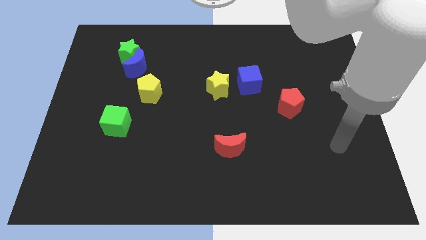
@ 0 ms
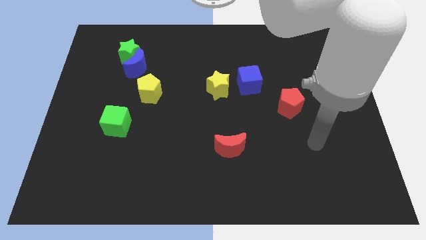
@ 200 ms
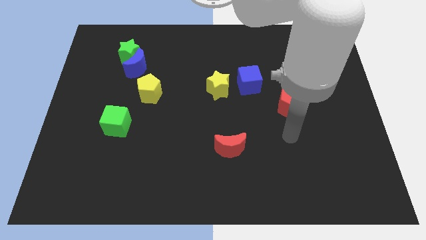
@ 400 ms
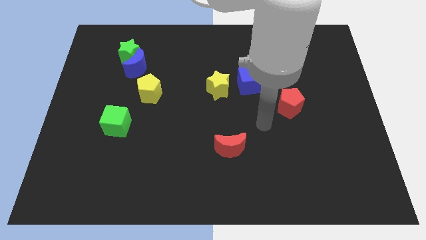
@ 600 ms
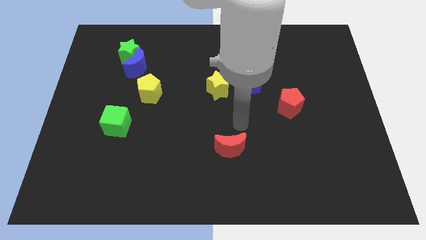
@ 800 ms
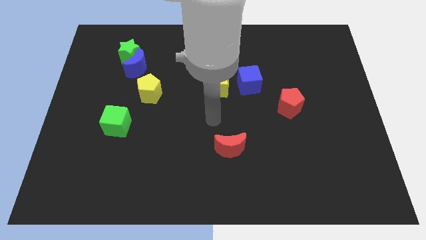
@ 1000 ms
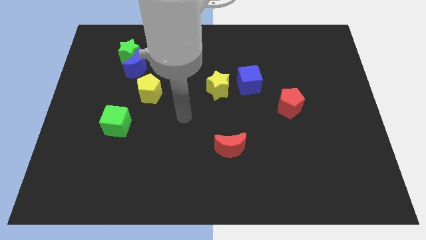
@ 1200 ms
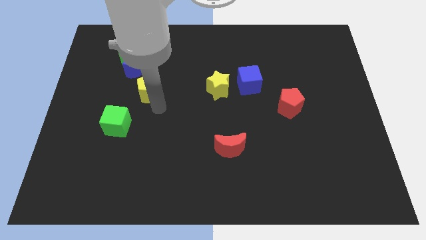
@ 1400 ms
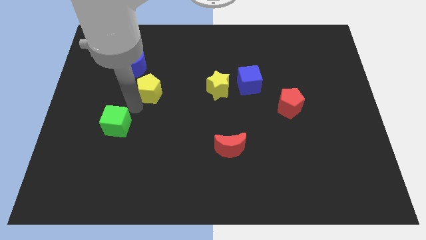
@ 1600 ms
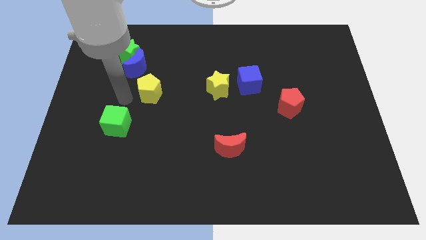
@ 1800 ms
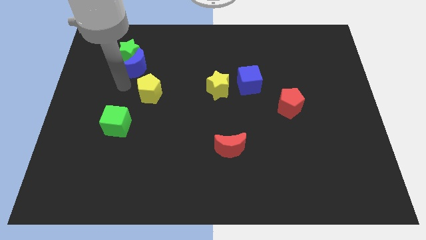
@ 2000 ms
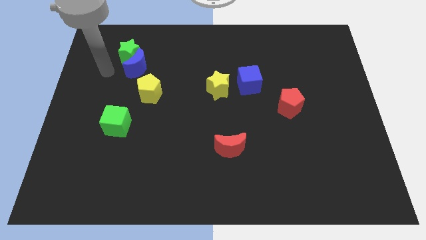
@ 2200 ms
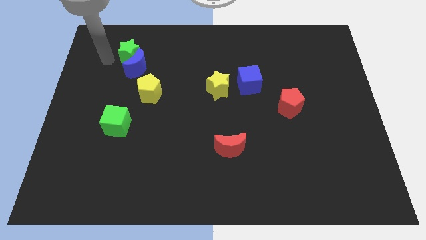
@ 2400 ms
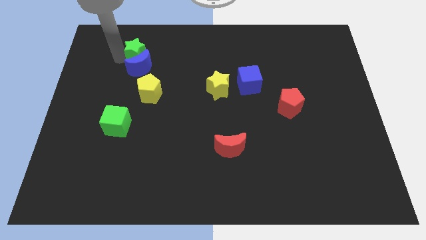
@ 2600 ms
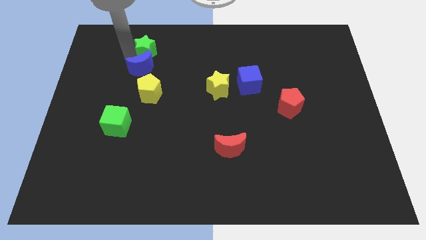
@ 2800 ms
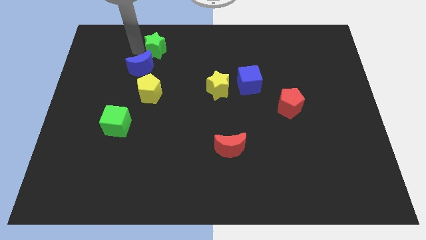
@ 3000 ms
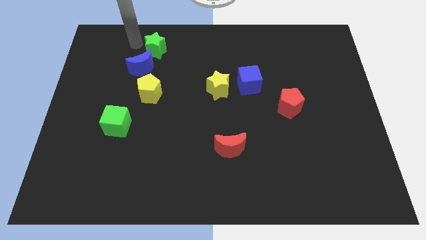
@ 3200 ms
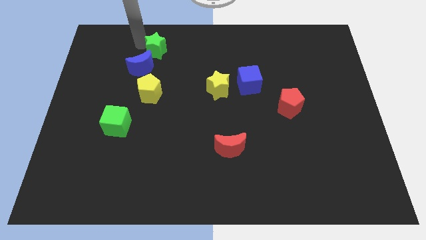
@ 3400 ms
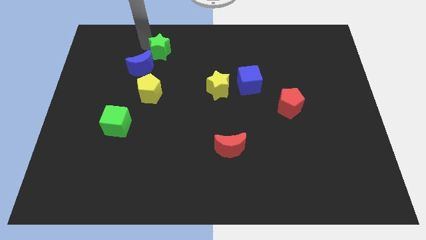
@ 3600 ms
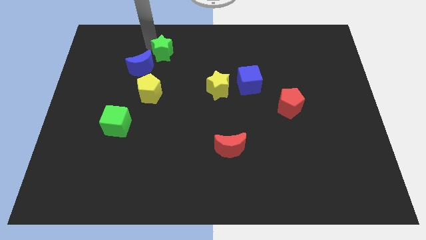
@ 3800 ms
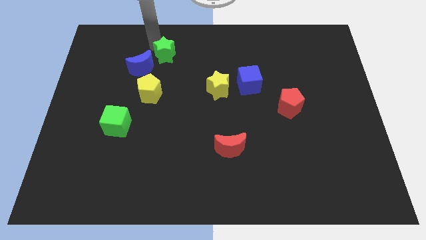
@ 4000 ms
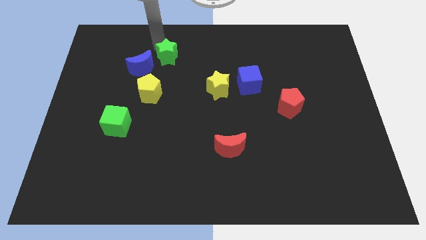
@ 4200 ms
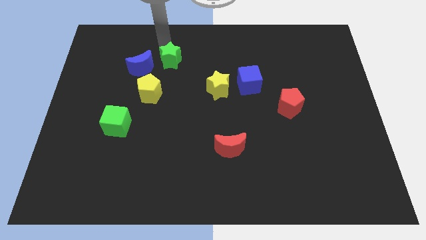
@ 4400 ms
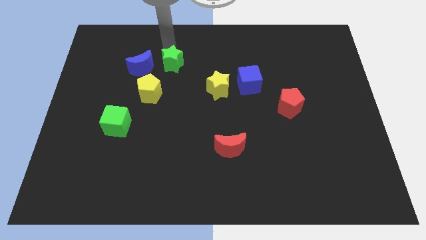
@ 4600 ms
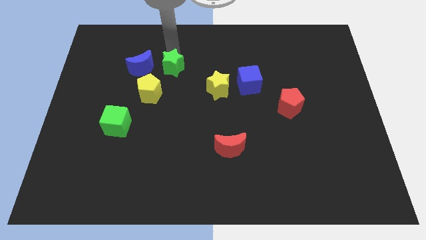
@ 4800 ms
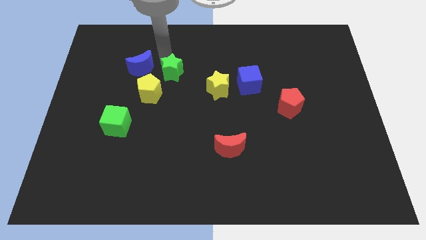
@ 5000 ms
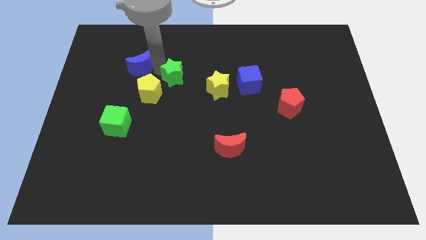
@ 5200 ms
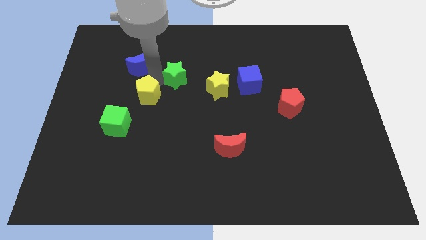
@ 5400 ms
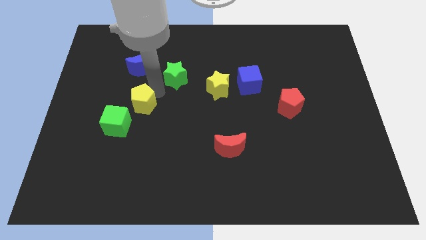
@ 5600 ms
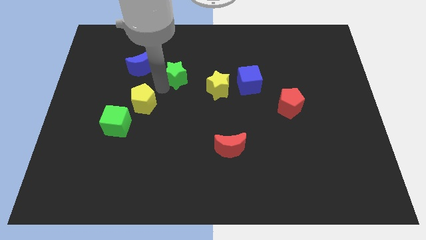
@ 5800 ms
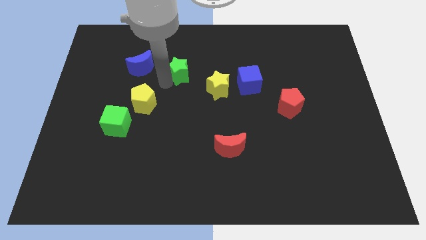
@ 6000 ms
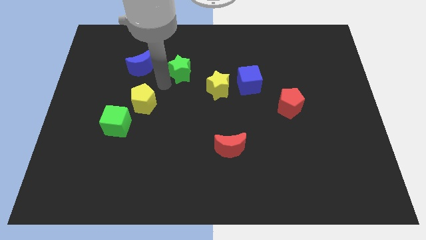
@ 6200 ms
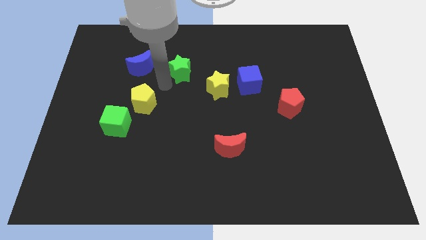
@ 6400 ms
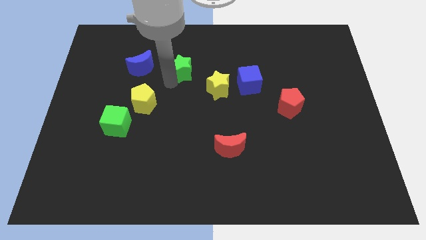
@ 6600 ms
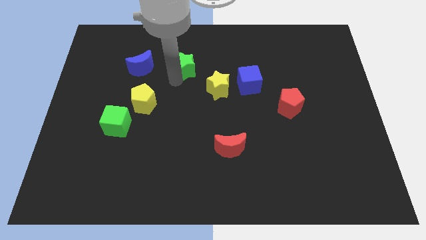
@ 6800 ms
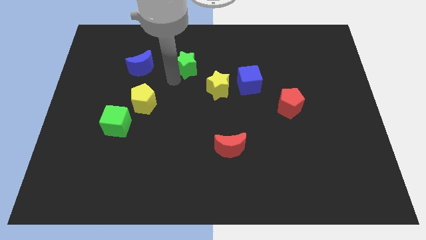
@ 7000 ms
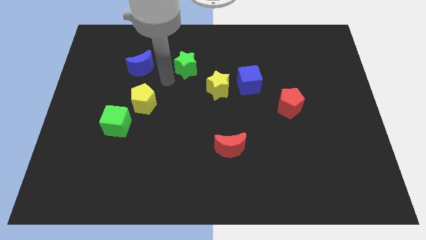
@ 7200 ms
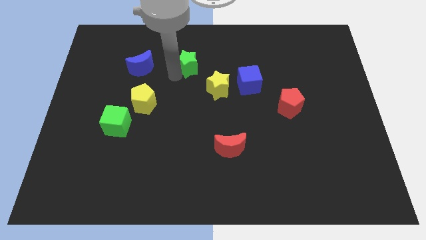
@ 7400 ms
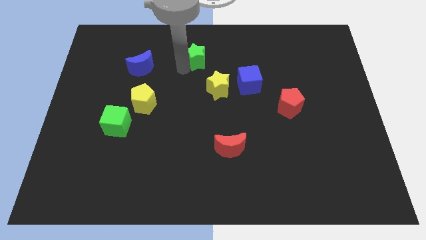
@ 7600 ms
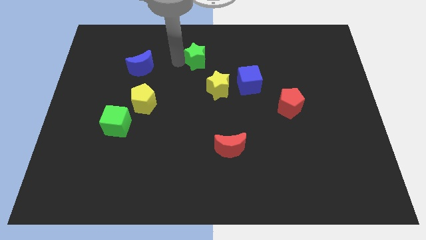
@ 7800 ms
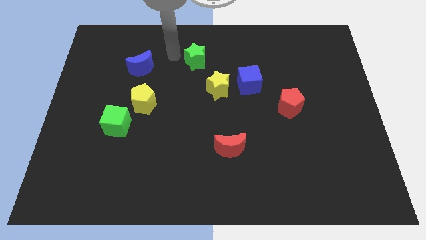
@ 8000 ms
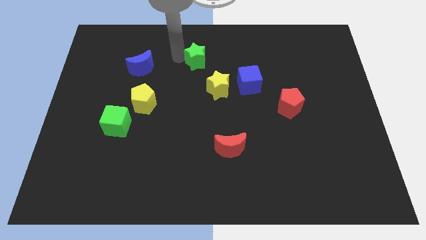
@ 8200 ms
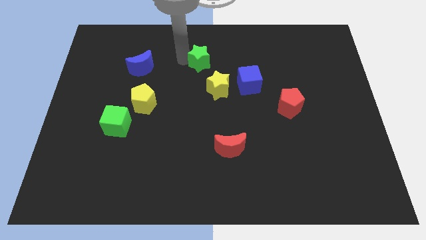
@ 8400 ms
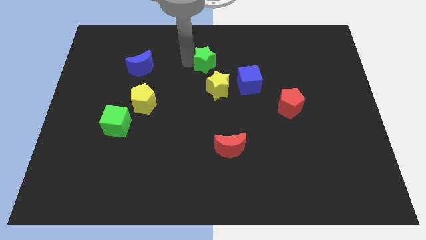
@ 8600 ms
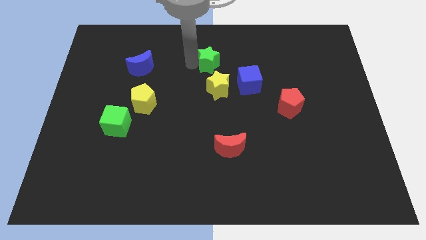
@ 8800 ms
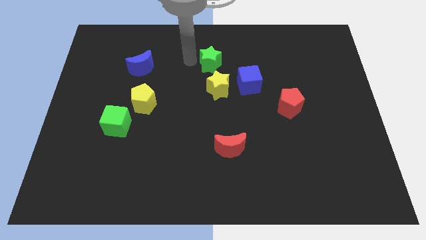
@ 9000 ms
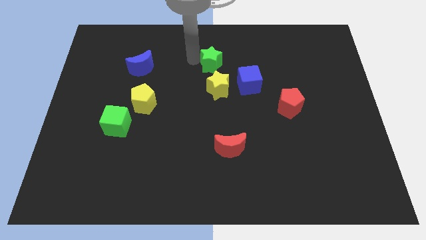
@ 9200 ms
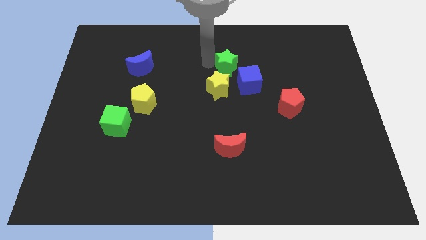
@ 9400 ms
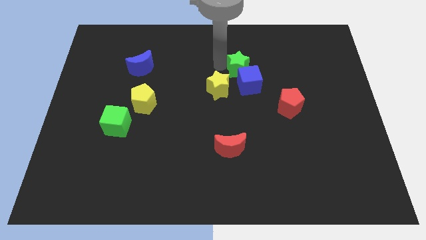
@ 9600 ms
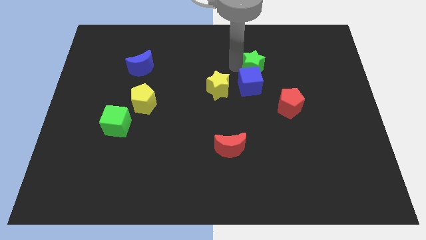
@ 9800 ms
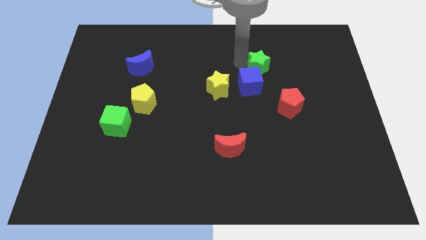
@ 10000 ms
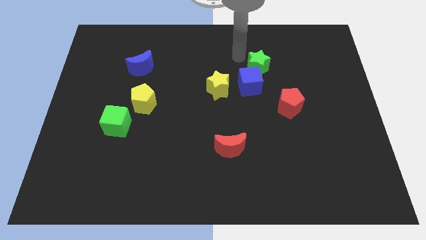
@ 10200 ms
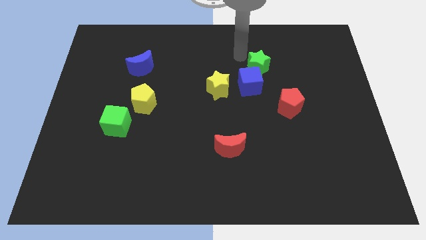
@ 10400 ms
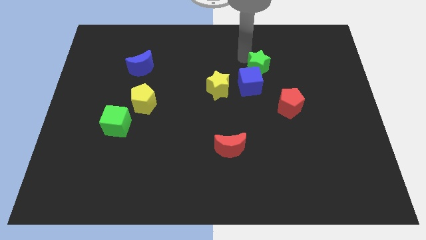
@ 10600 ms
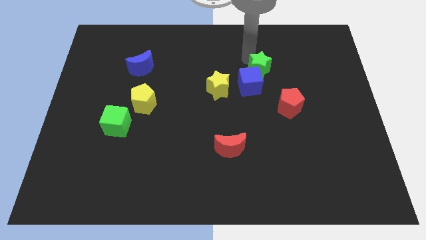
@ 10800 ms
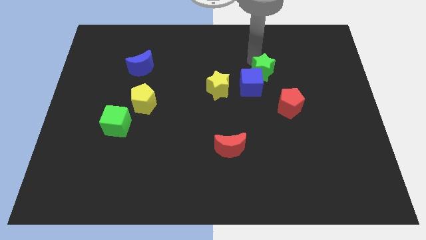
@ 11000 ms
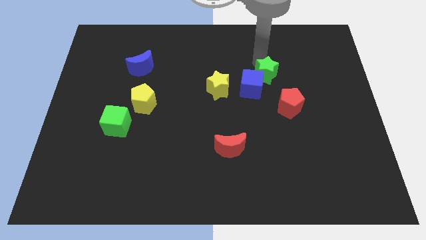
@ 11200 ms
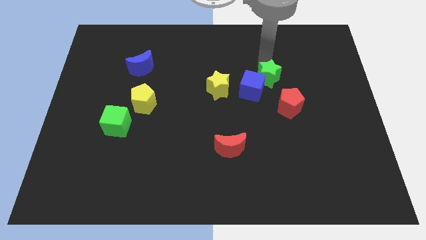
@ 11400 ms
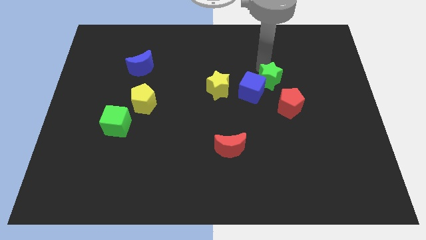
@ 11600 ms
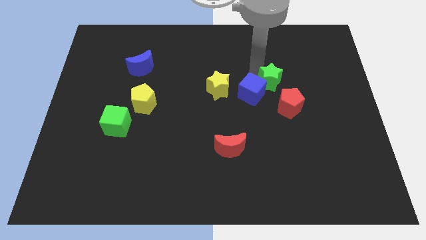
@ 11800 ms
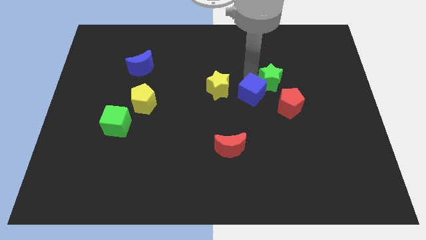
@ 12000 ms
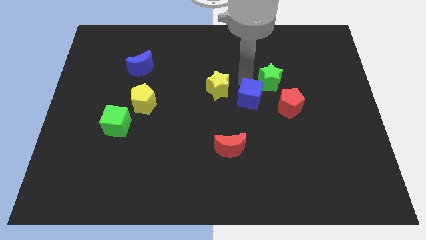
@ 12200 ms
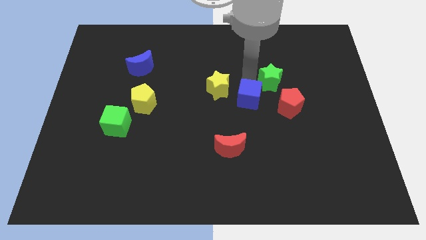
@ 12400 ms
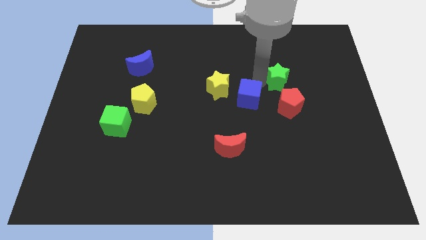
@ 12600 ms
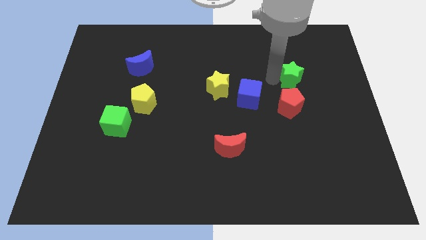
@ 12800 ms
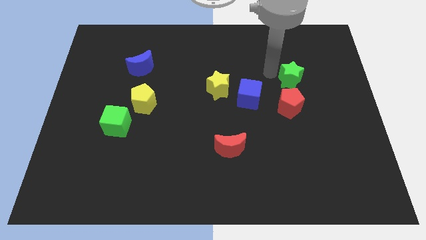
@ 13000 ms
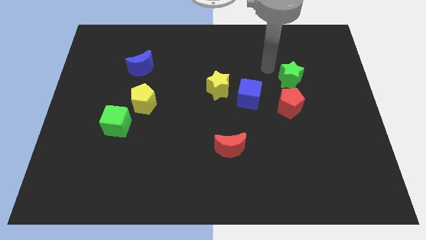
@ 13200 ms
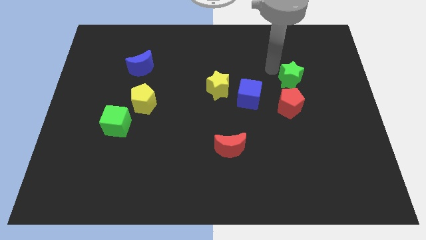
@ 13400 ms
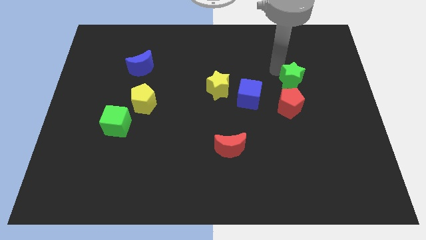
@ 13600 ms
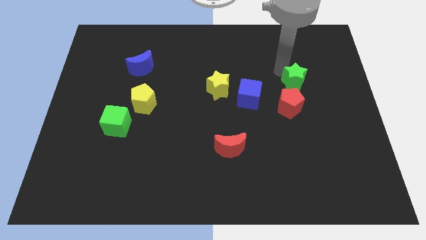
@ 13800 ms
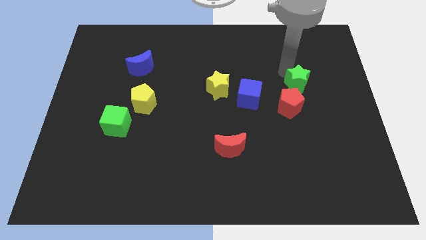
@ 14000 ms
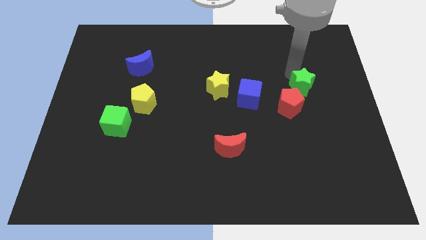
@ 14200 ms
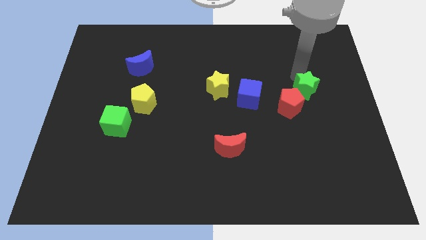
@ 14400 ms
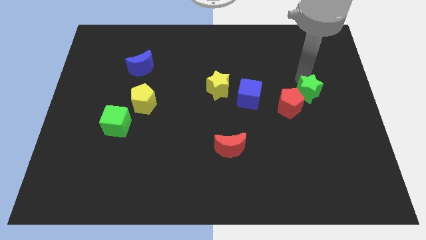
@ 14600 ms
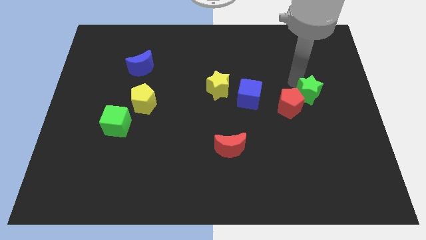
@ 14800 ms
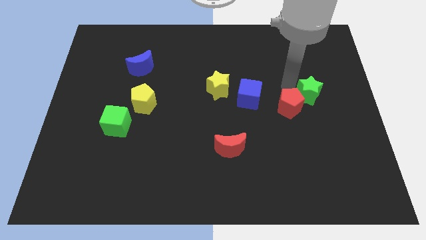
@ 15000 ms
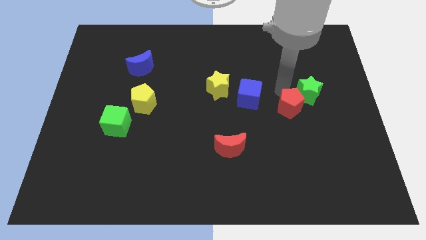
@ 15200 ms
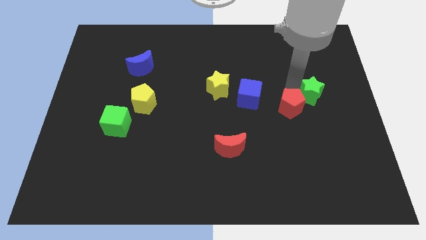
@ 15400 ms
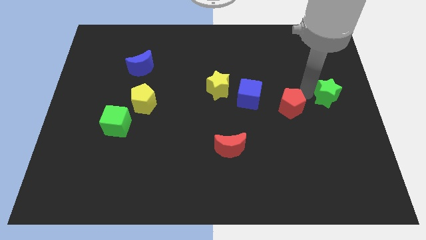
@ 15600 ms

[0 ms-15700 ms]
slide the green star to the center right
